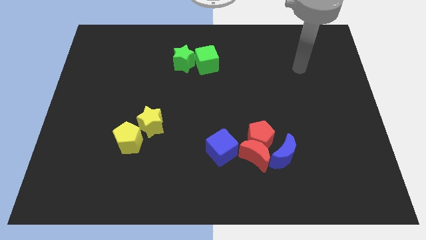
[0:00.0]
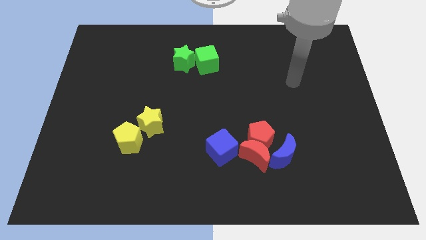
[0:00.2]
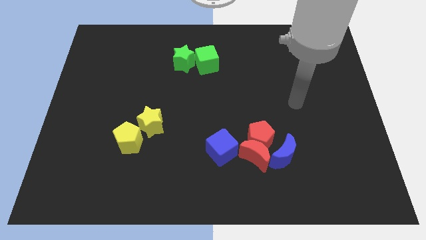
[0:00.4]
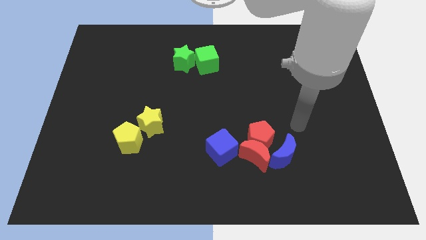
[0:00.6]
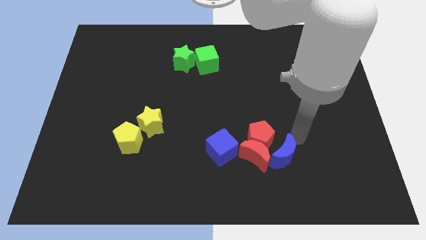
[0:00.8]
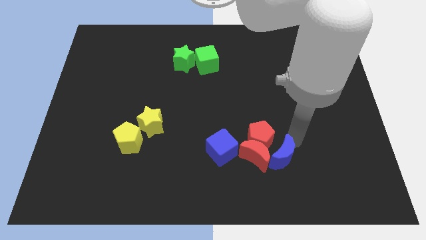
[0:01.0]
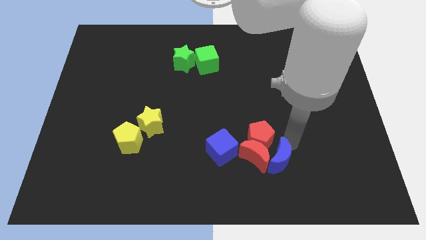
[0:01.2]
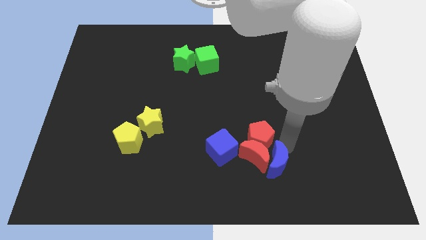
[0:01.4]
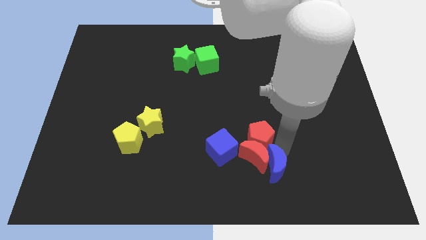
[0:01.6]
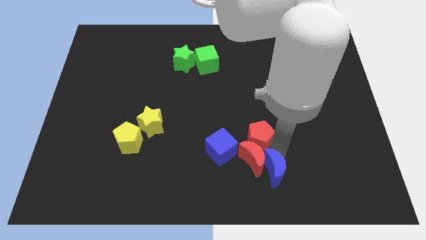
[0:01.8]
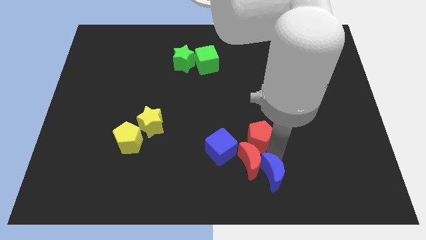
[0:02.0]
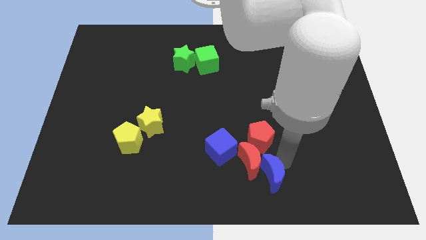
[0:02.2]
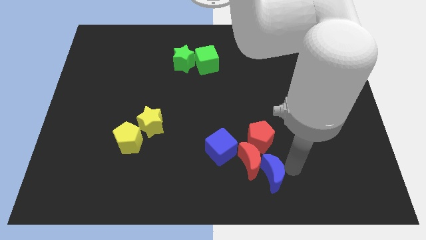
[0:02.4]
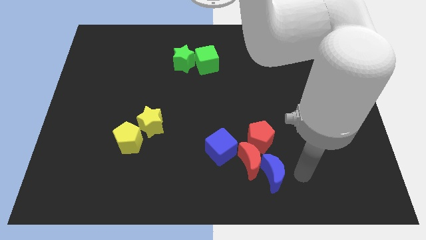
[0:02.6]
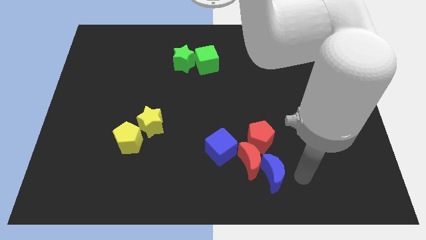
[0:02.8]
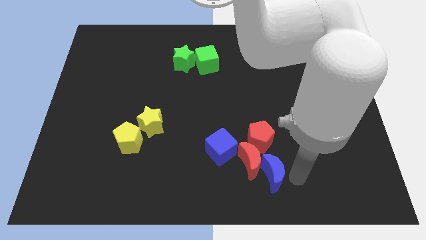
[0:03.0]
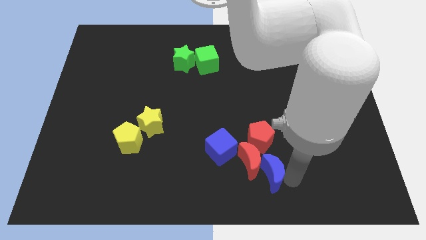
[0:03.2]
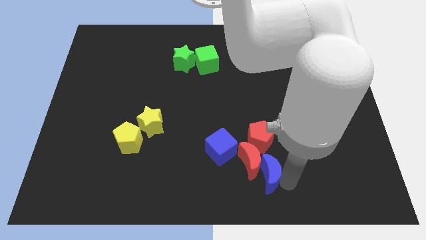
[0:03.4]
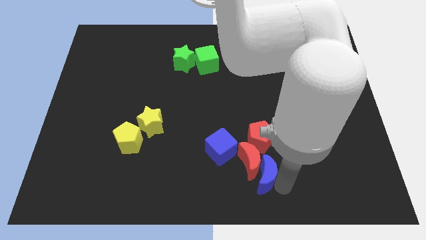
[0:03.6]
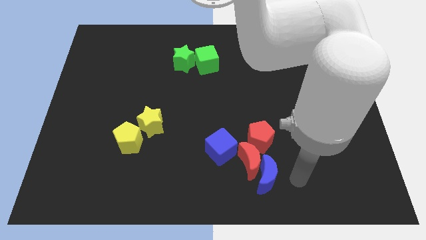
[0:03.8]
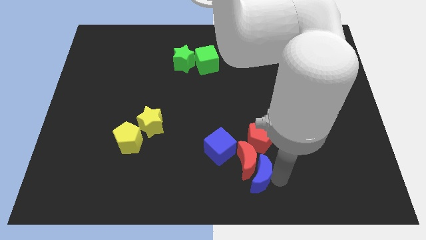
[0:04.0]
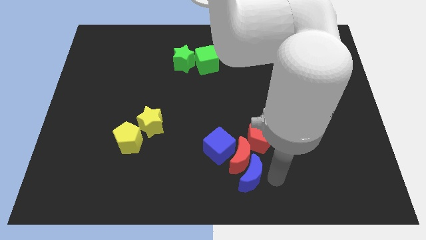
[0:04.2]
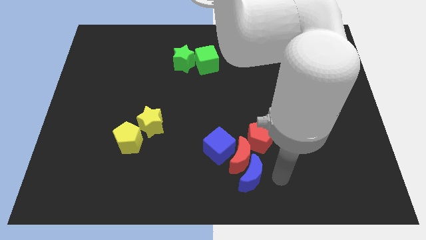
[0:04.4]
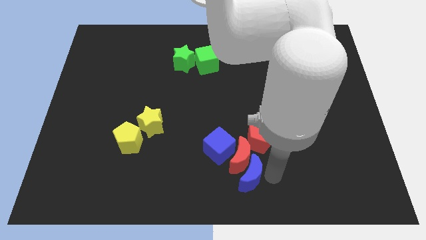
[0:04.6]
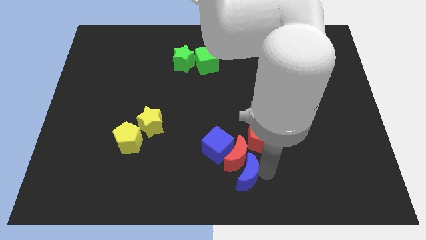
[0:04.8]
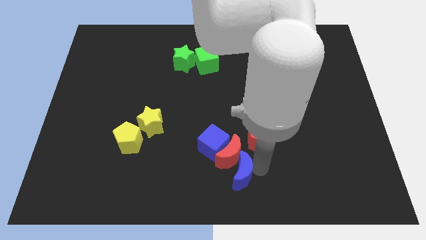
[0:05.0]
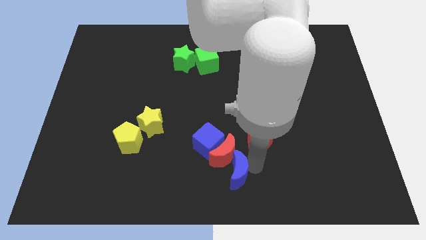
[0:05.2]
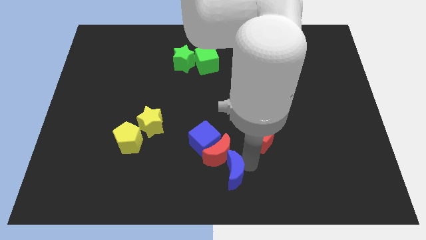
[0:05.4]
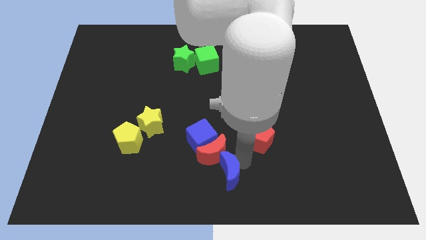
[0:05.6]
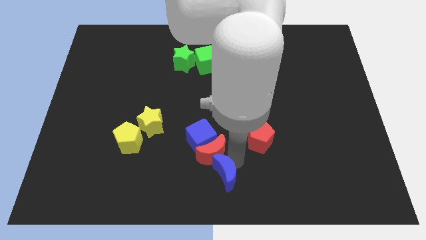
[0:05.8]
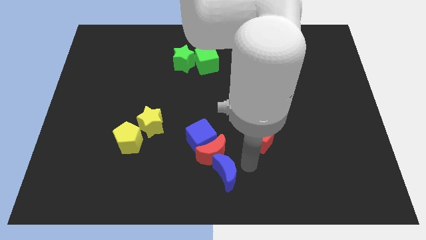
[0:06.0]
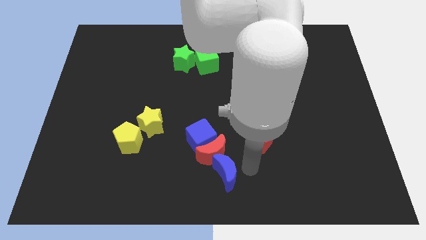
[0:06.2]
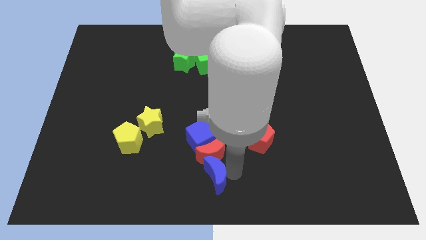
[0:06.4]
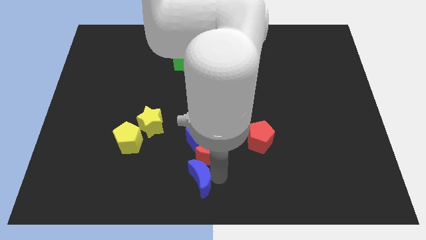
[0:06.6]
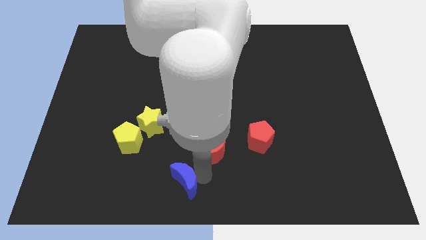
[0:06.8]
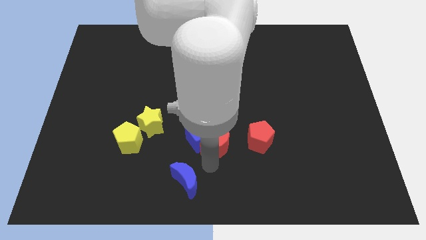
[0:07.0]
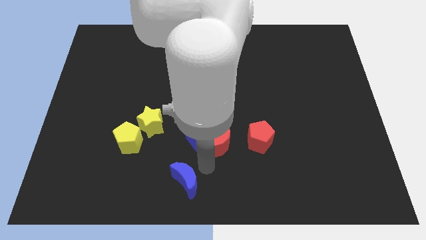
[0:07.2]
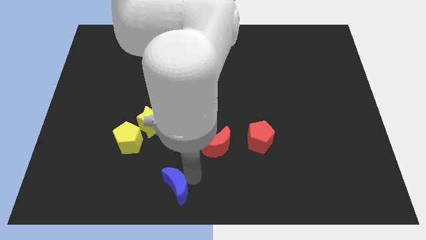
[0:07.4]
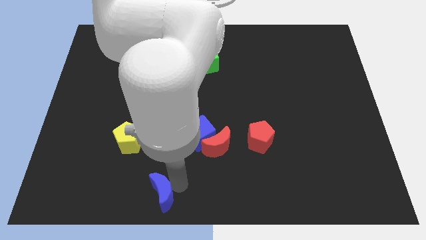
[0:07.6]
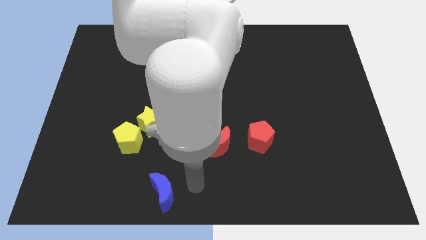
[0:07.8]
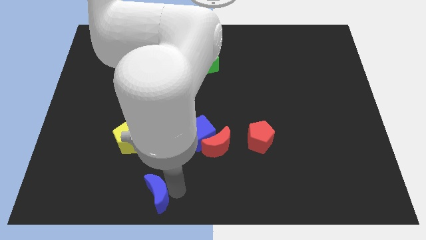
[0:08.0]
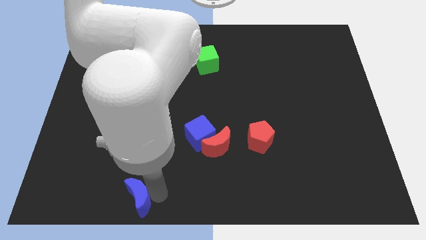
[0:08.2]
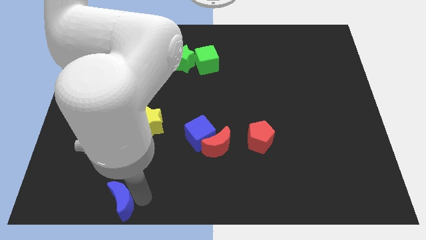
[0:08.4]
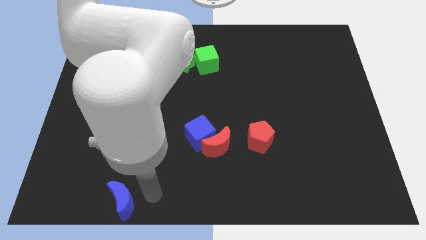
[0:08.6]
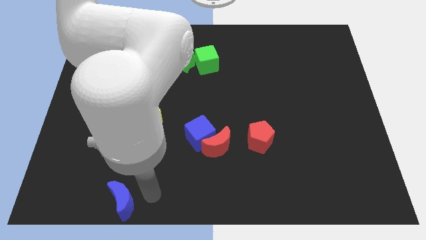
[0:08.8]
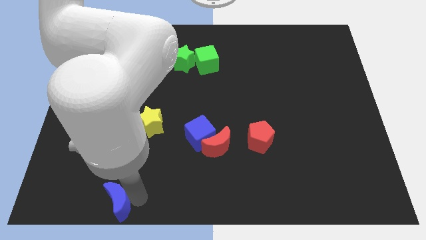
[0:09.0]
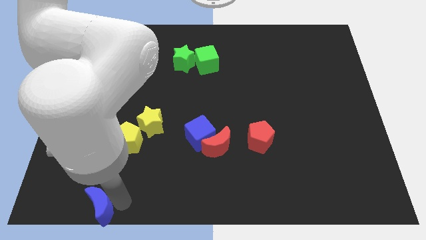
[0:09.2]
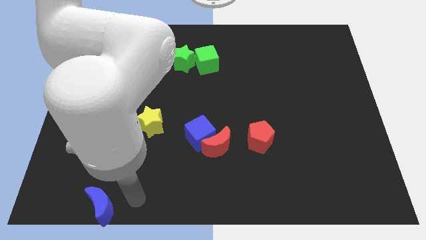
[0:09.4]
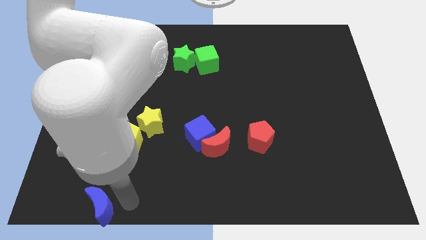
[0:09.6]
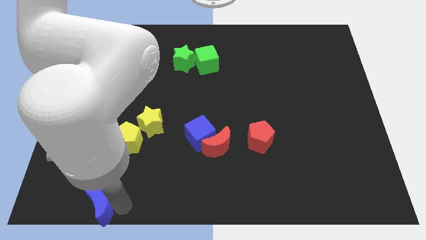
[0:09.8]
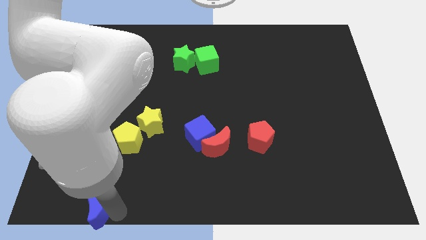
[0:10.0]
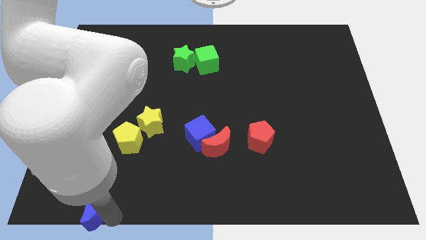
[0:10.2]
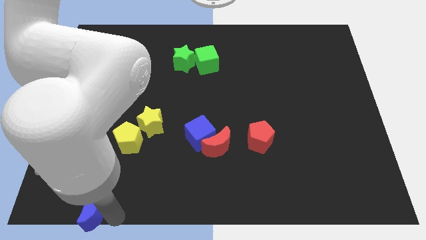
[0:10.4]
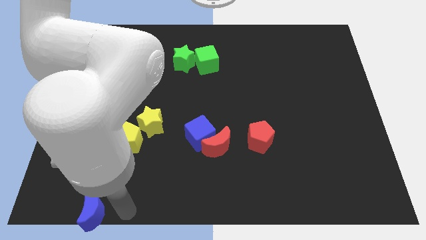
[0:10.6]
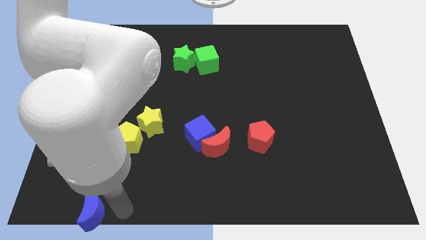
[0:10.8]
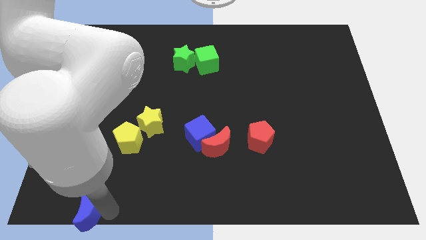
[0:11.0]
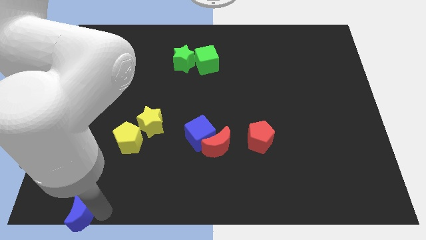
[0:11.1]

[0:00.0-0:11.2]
slide the blue moon to the bottom left of the board
